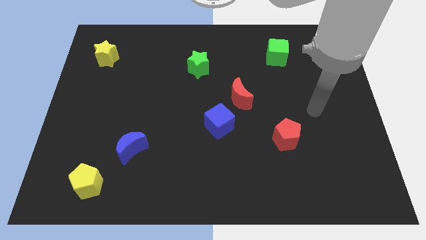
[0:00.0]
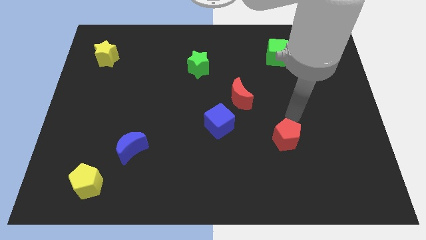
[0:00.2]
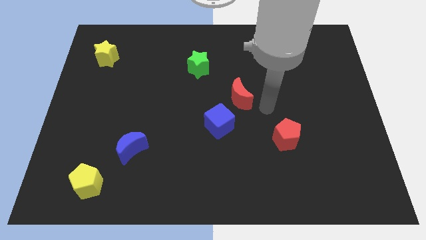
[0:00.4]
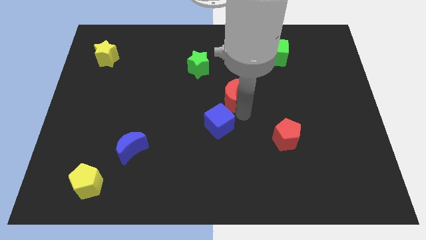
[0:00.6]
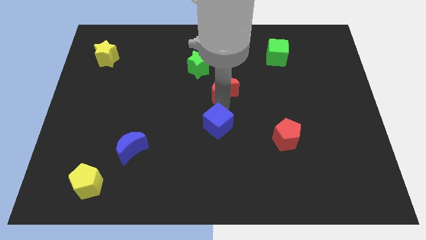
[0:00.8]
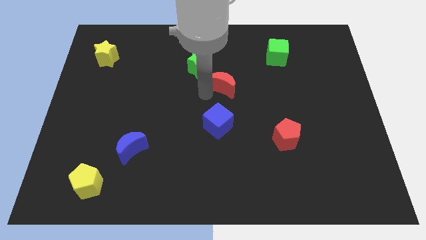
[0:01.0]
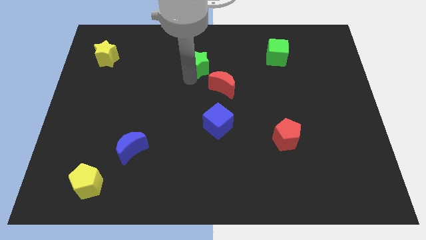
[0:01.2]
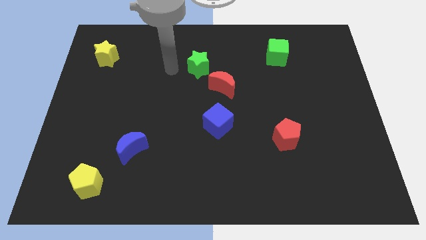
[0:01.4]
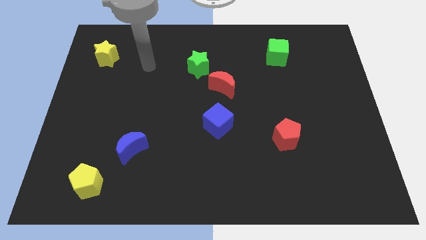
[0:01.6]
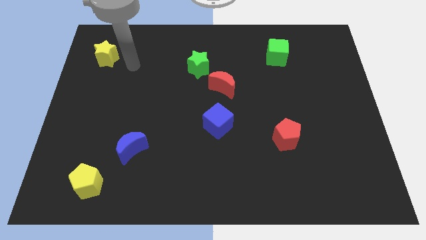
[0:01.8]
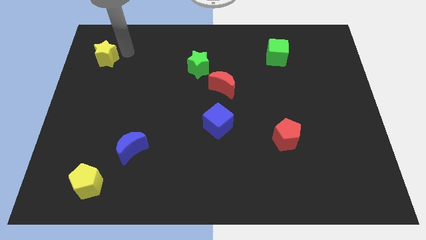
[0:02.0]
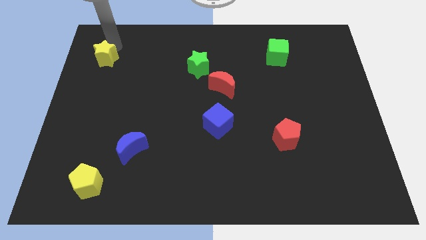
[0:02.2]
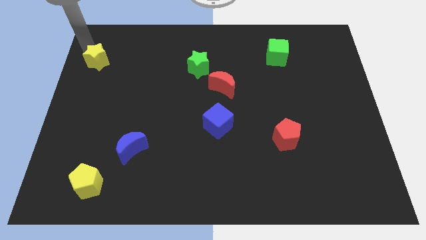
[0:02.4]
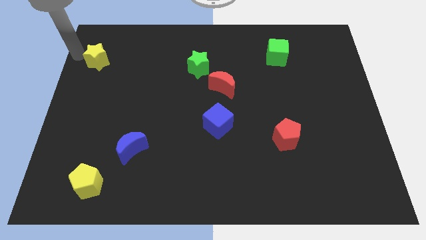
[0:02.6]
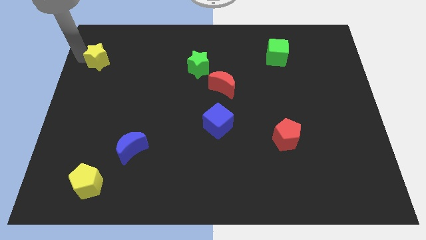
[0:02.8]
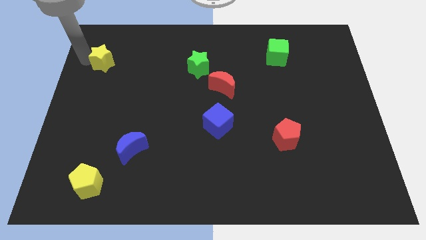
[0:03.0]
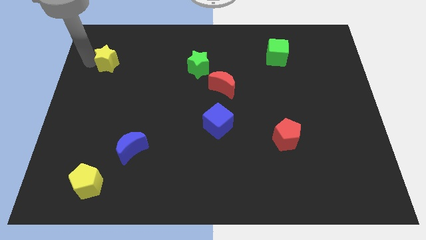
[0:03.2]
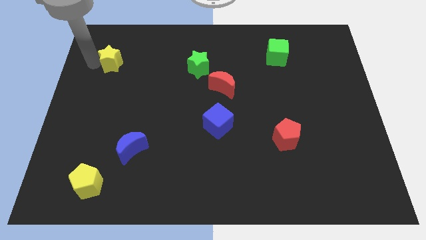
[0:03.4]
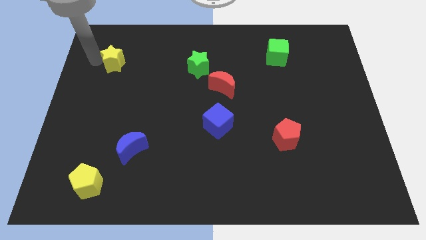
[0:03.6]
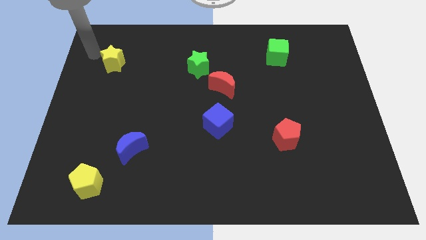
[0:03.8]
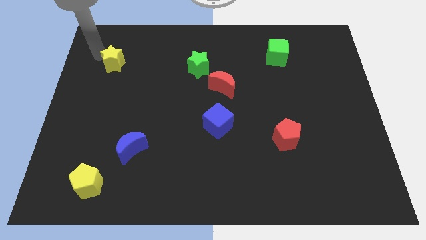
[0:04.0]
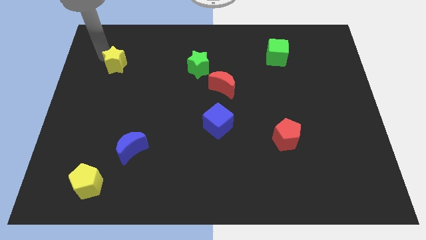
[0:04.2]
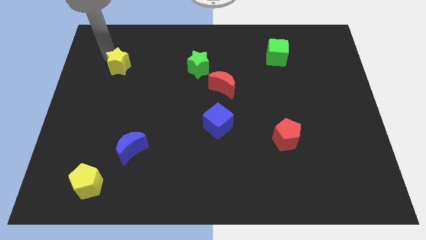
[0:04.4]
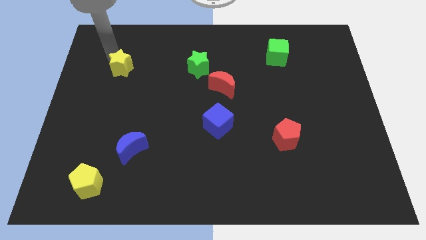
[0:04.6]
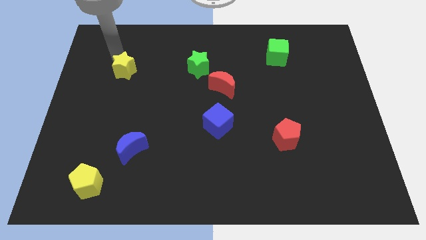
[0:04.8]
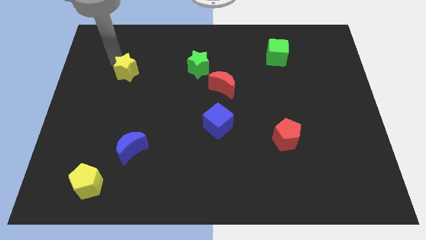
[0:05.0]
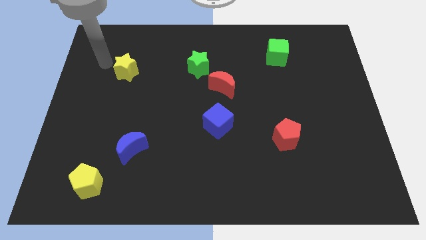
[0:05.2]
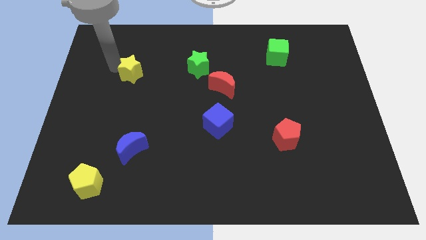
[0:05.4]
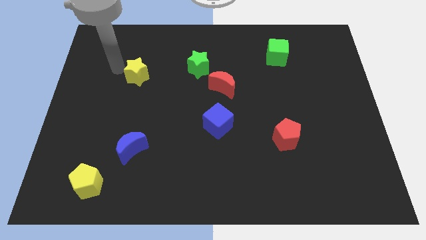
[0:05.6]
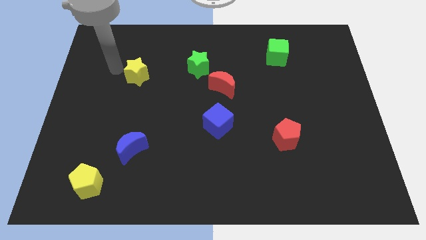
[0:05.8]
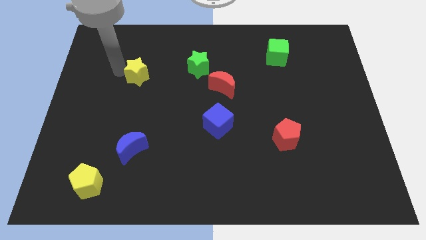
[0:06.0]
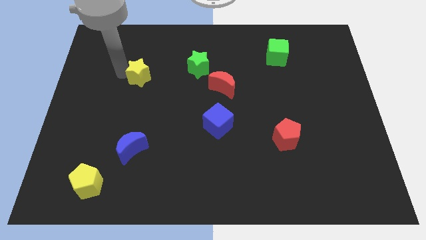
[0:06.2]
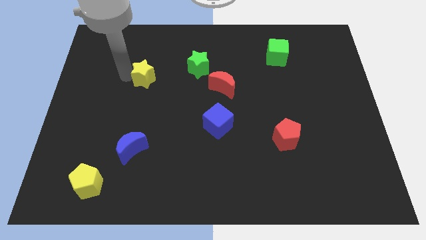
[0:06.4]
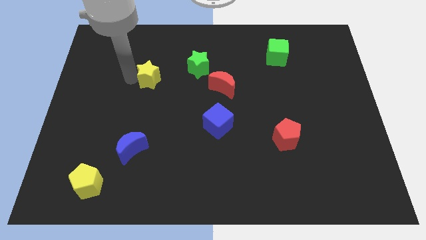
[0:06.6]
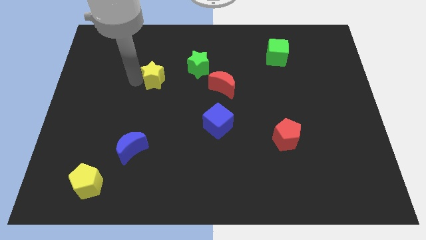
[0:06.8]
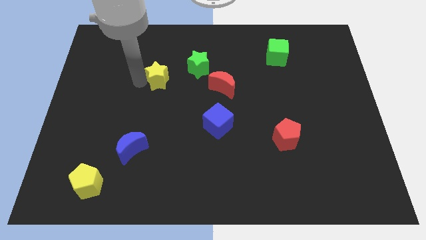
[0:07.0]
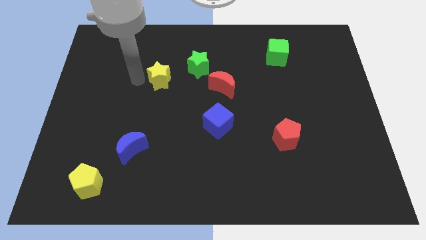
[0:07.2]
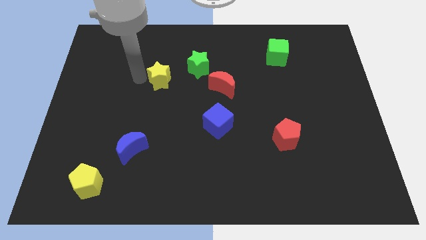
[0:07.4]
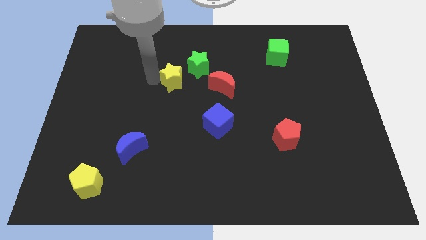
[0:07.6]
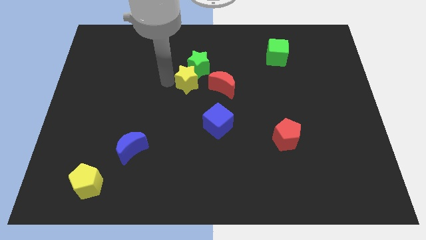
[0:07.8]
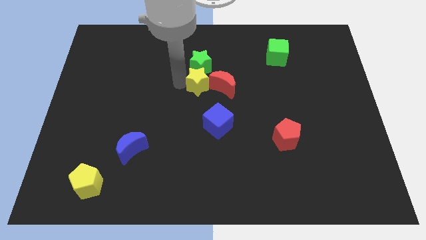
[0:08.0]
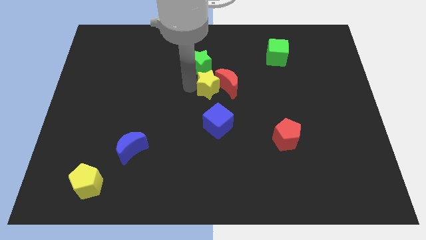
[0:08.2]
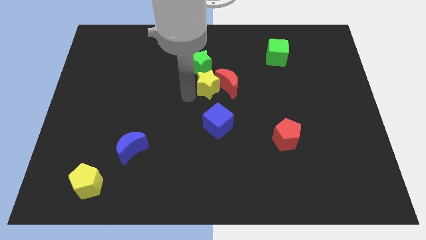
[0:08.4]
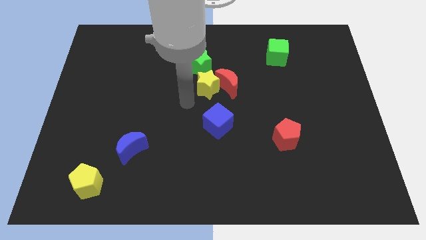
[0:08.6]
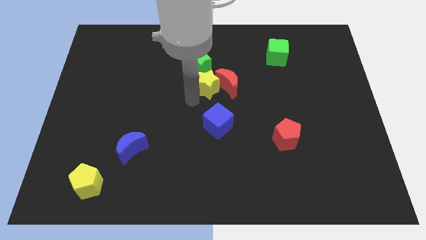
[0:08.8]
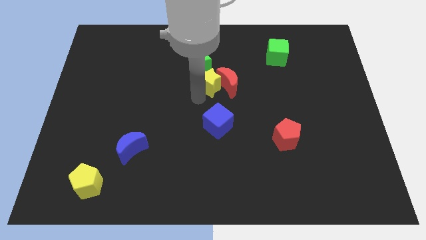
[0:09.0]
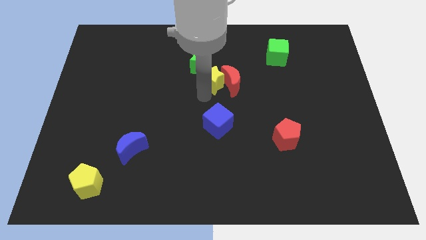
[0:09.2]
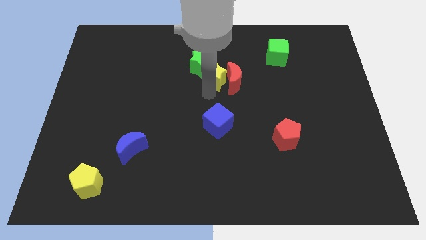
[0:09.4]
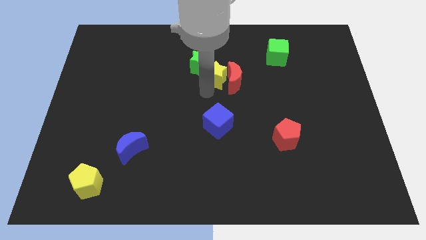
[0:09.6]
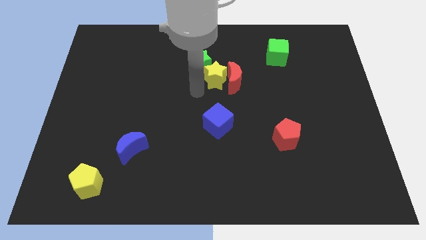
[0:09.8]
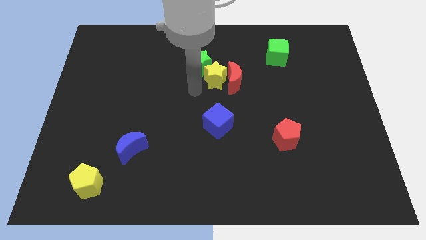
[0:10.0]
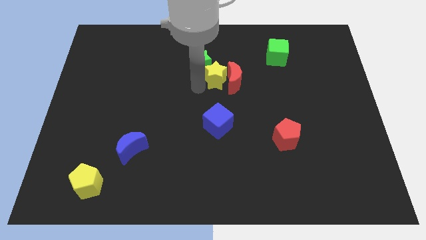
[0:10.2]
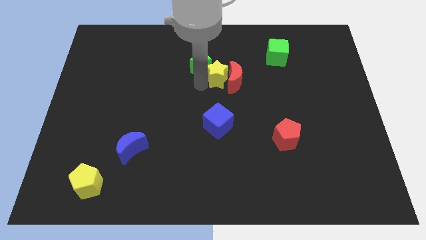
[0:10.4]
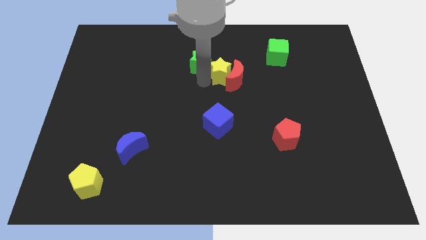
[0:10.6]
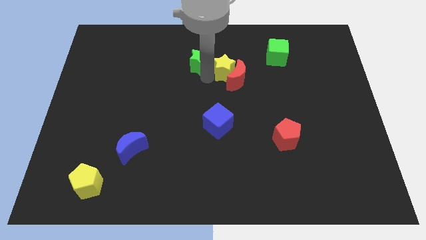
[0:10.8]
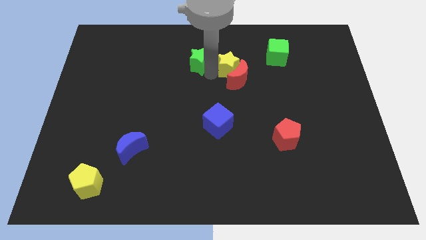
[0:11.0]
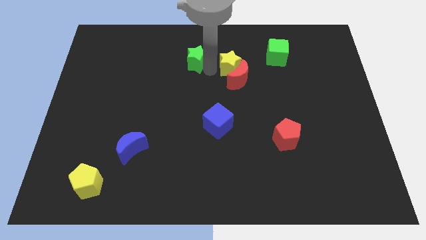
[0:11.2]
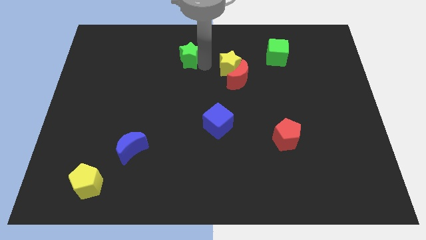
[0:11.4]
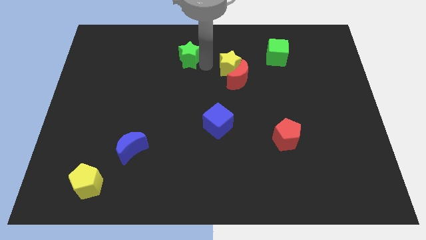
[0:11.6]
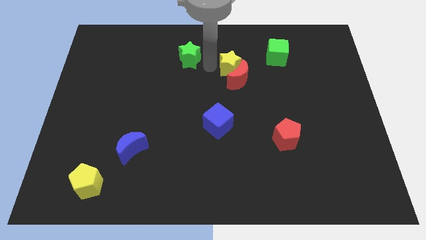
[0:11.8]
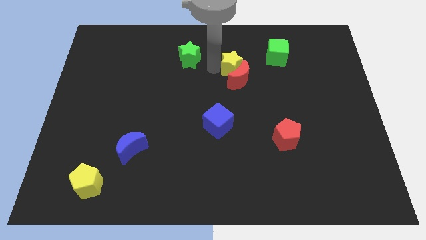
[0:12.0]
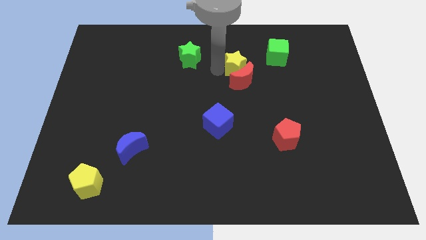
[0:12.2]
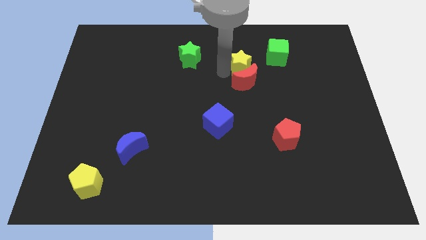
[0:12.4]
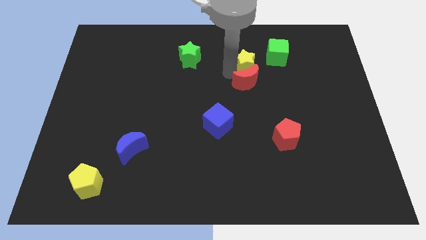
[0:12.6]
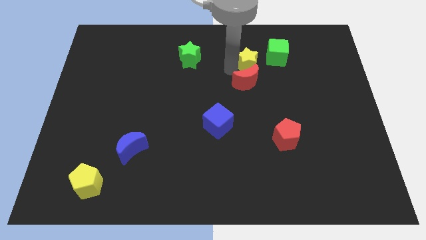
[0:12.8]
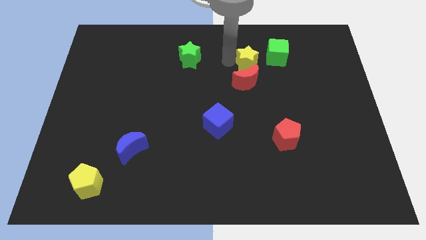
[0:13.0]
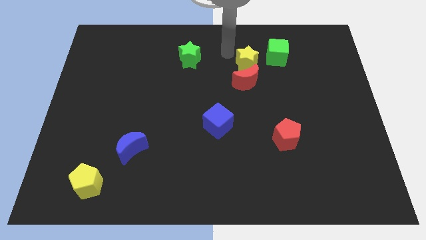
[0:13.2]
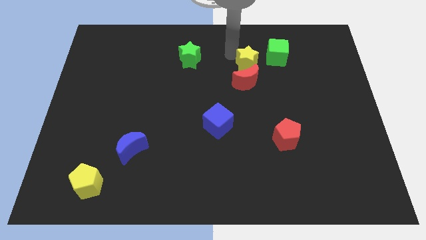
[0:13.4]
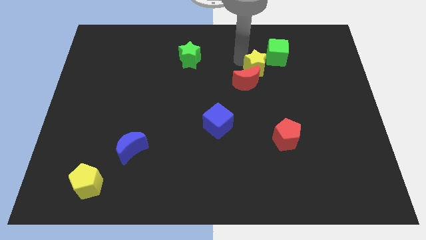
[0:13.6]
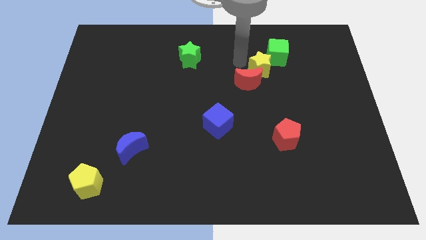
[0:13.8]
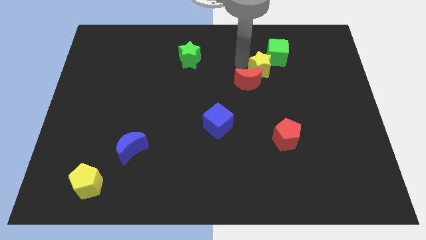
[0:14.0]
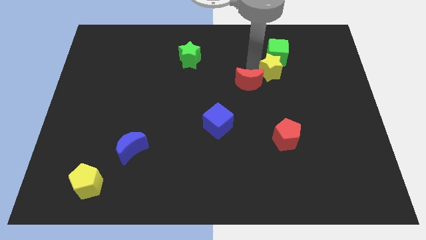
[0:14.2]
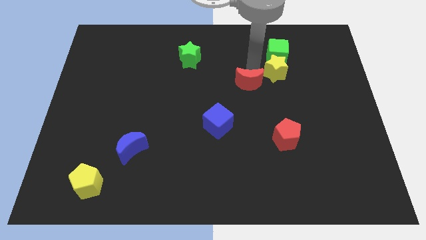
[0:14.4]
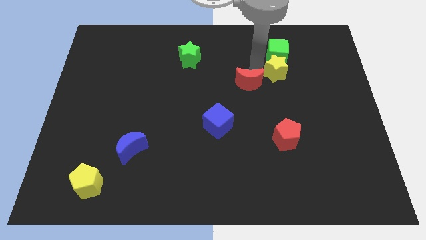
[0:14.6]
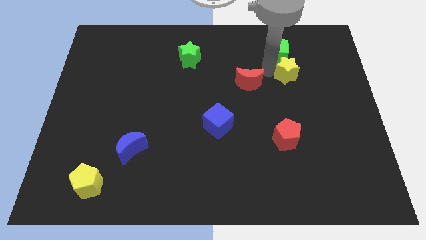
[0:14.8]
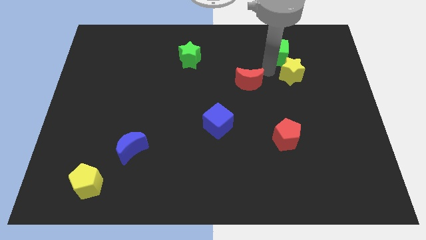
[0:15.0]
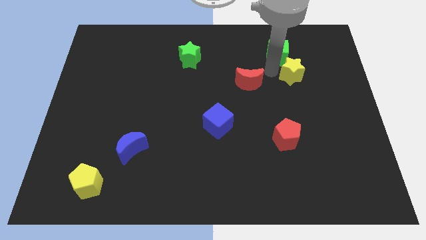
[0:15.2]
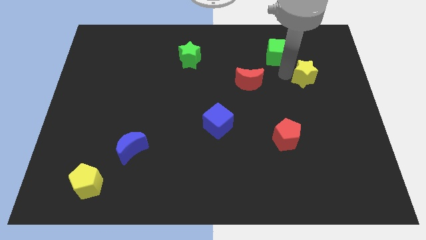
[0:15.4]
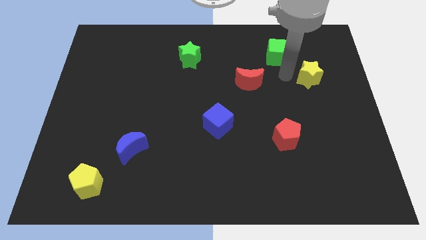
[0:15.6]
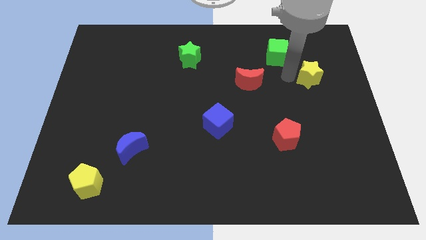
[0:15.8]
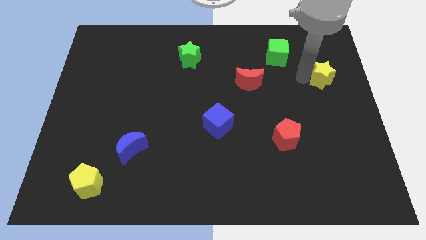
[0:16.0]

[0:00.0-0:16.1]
move the yellow star to the right side
